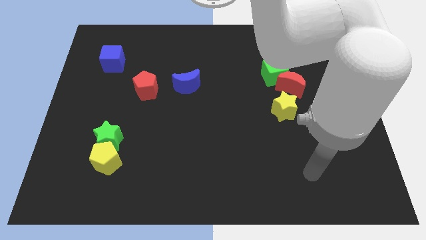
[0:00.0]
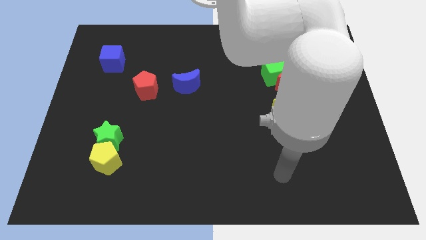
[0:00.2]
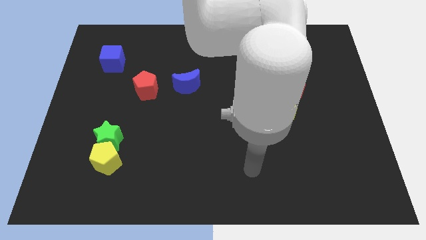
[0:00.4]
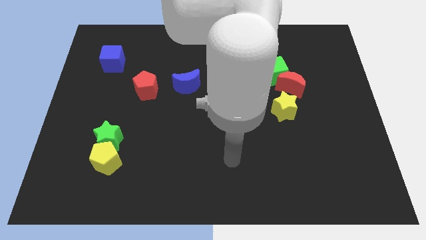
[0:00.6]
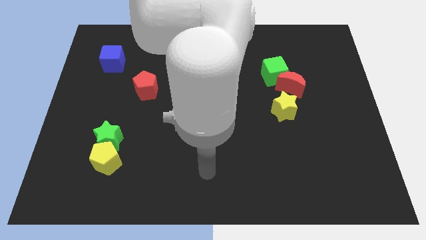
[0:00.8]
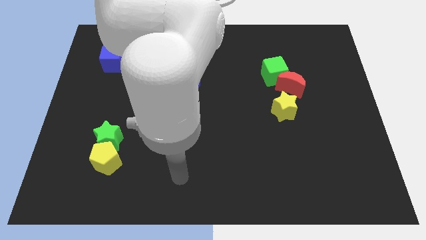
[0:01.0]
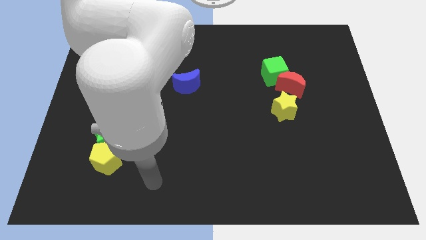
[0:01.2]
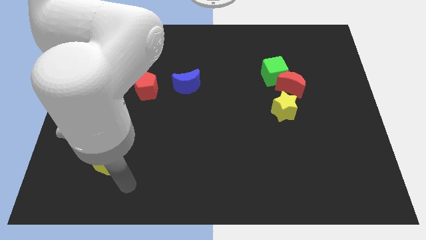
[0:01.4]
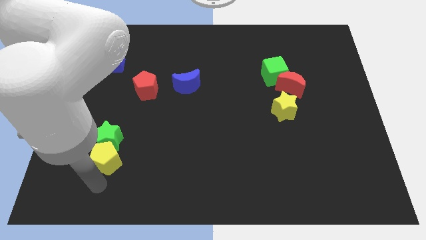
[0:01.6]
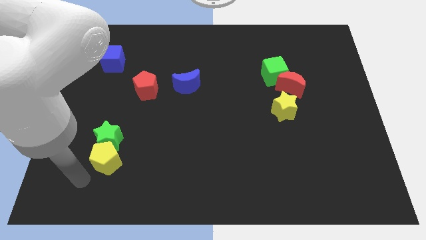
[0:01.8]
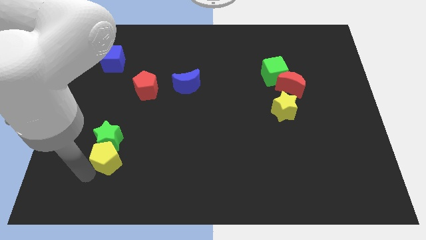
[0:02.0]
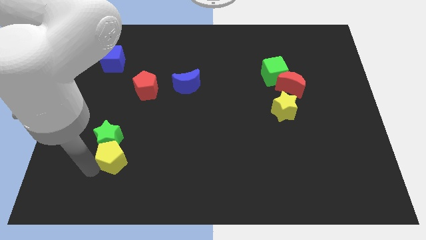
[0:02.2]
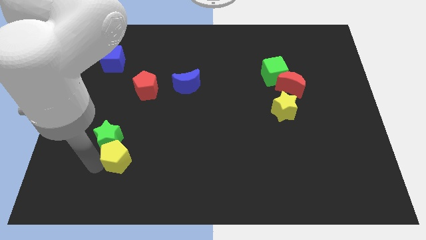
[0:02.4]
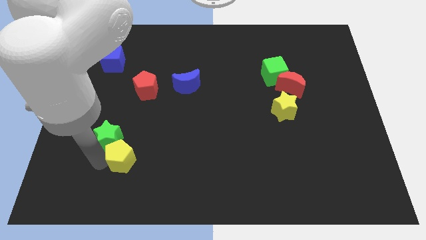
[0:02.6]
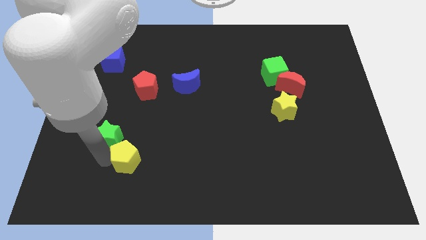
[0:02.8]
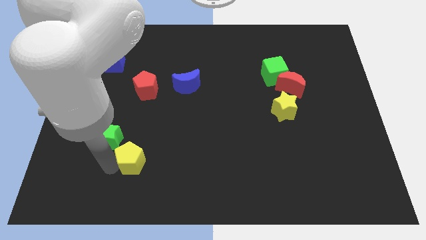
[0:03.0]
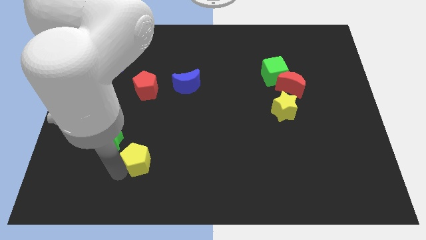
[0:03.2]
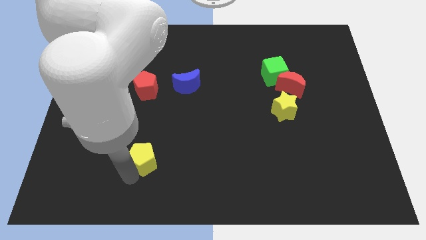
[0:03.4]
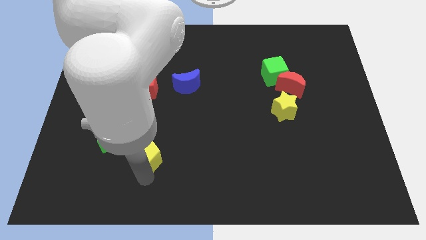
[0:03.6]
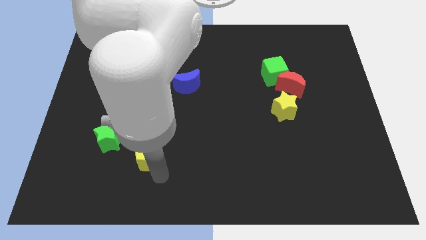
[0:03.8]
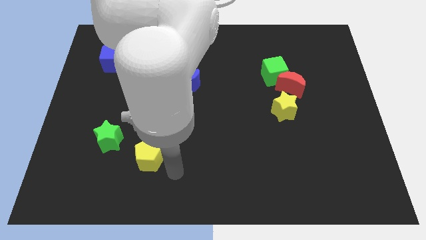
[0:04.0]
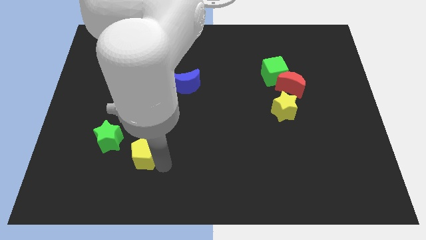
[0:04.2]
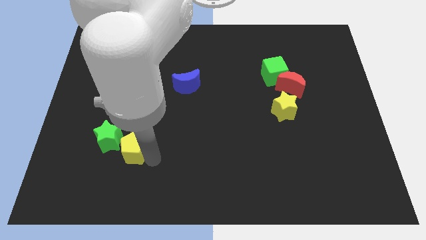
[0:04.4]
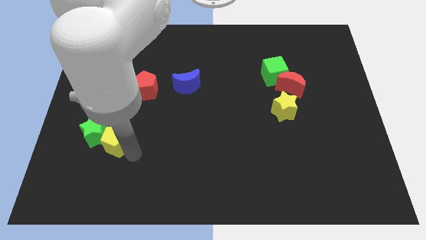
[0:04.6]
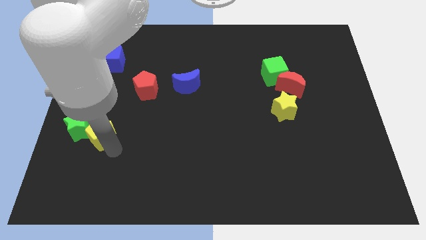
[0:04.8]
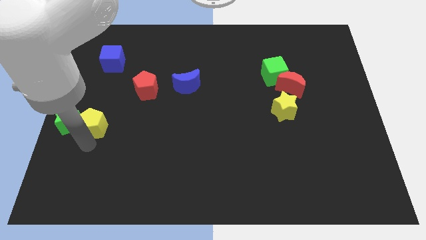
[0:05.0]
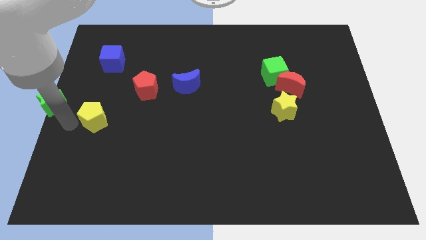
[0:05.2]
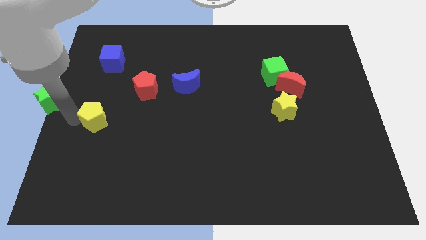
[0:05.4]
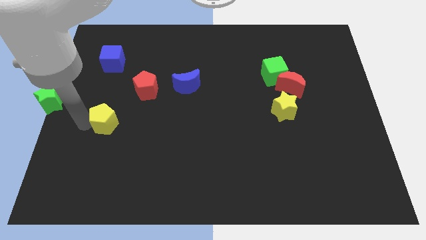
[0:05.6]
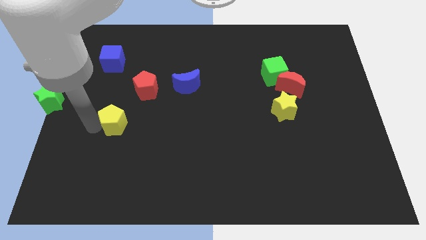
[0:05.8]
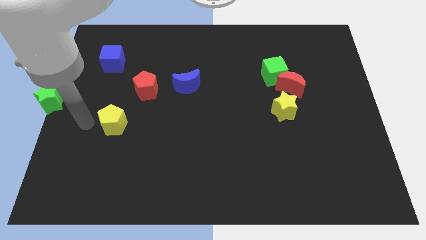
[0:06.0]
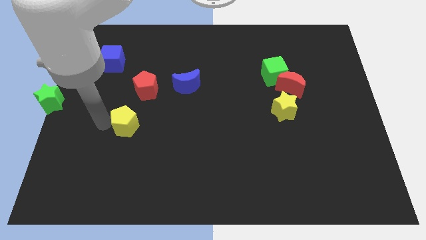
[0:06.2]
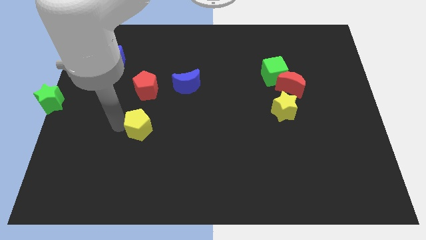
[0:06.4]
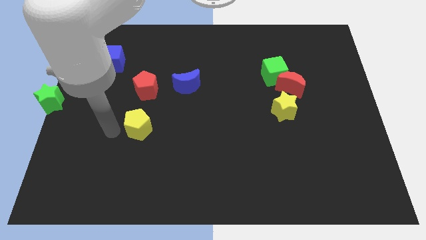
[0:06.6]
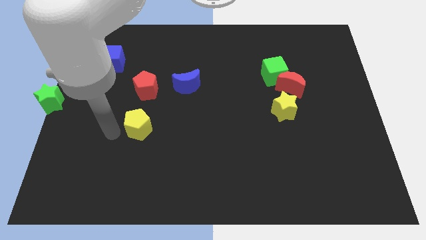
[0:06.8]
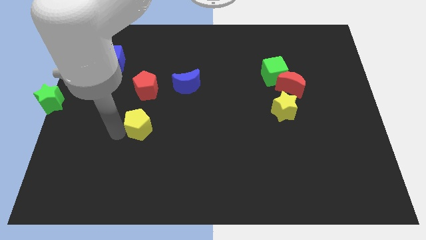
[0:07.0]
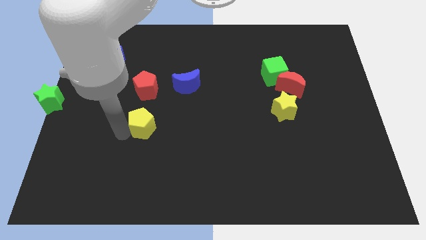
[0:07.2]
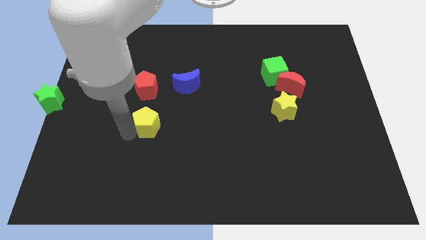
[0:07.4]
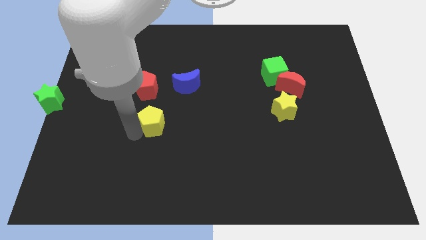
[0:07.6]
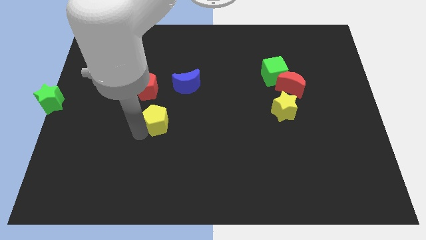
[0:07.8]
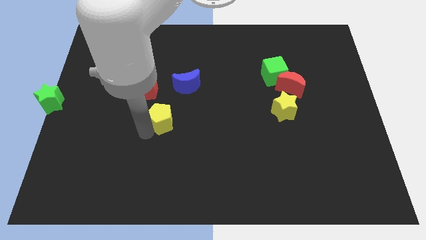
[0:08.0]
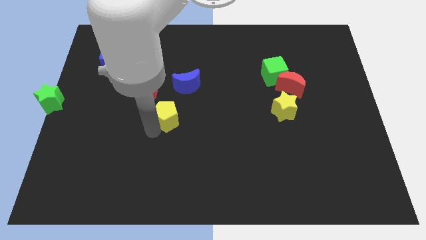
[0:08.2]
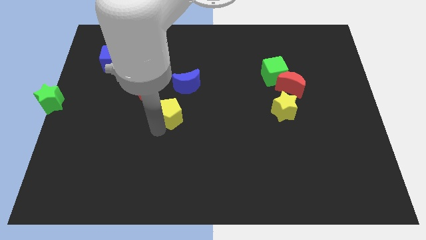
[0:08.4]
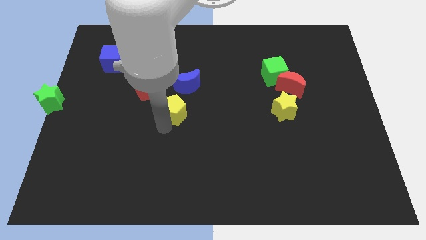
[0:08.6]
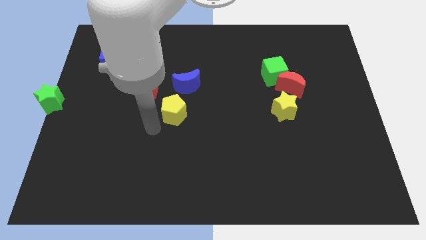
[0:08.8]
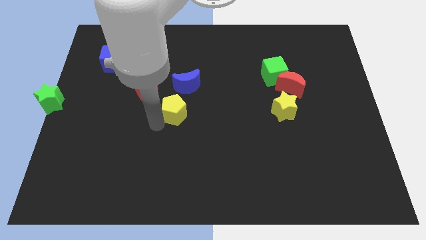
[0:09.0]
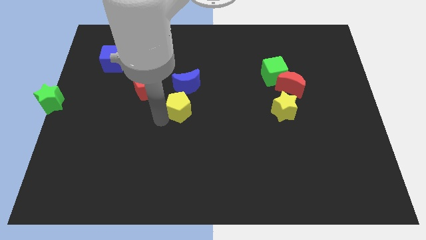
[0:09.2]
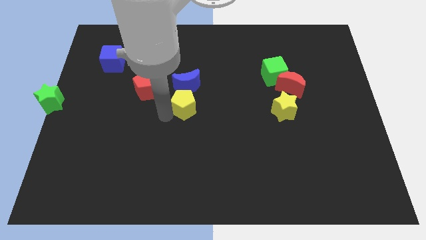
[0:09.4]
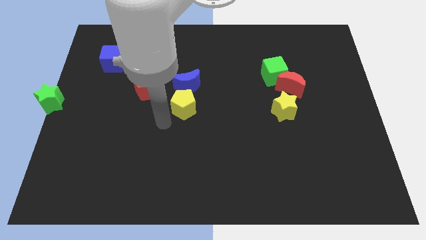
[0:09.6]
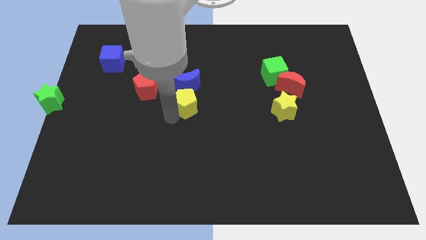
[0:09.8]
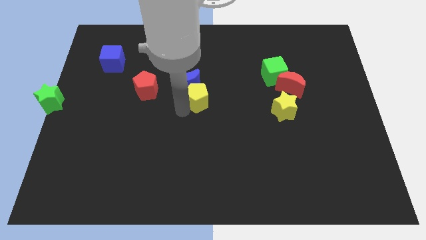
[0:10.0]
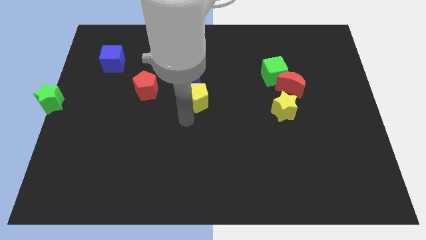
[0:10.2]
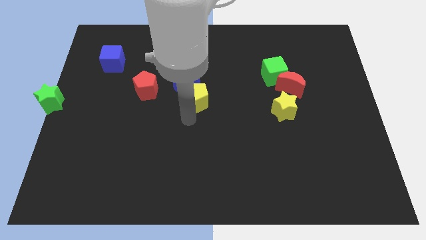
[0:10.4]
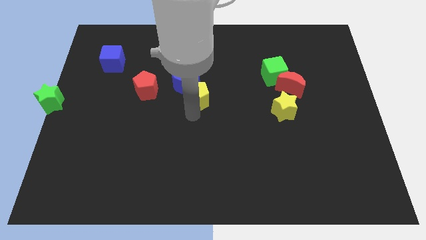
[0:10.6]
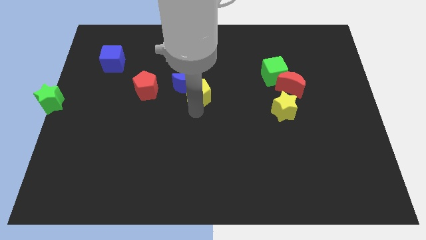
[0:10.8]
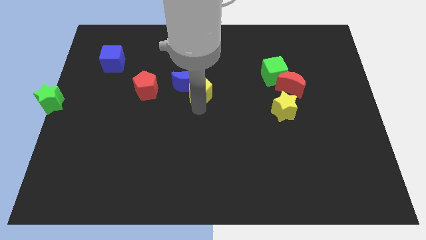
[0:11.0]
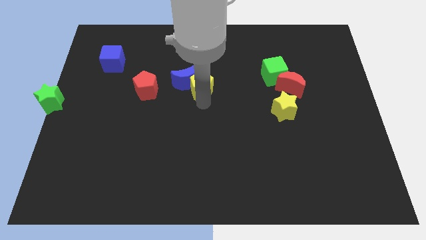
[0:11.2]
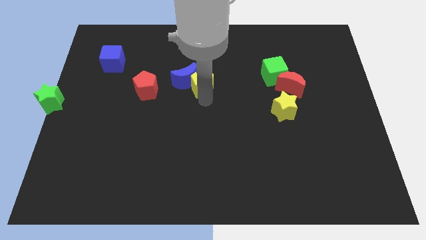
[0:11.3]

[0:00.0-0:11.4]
slide the yellow pentagon diagonally up and to the right of the blue moon

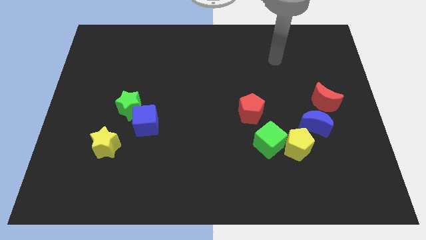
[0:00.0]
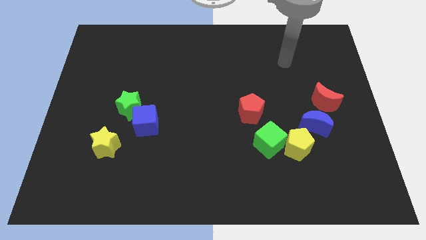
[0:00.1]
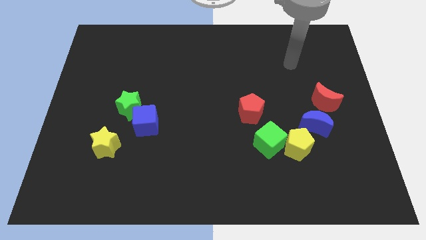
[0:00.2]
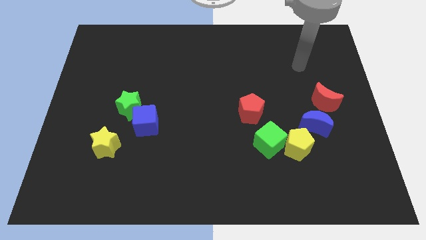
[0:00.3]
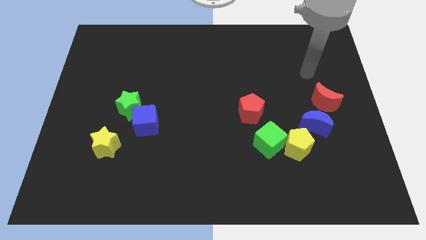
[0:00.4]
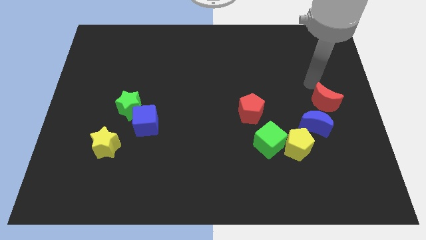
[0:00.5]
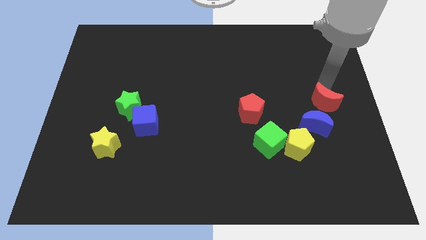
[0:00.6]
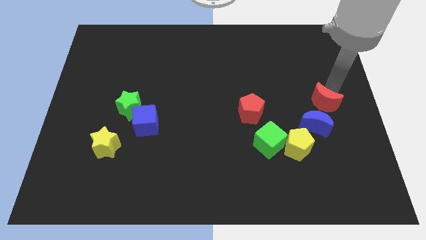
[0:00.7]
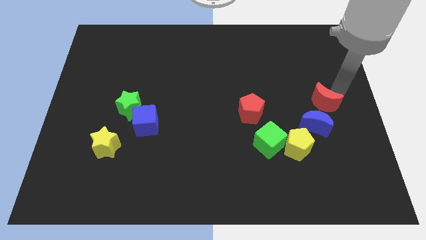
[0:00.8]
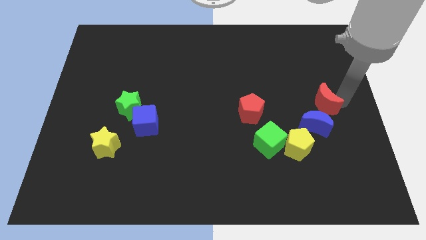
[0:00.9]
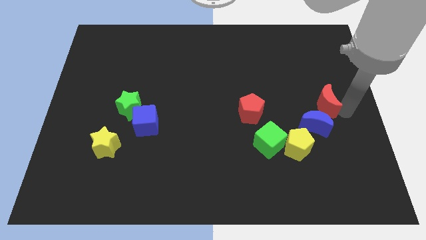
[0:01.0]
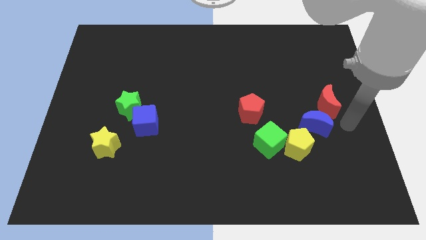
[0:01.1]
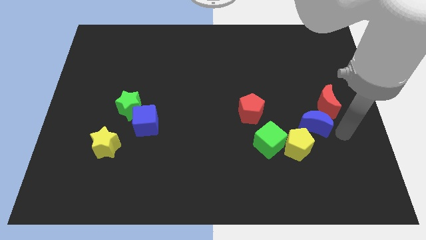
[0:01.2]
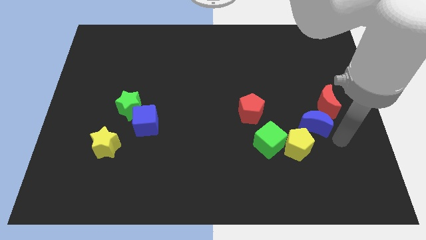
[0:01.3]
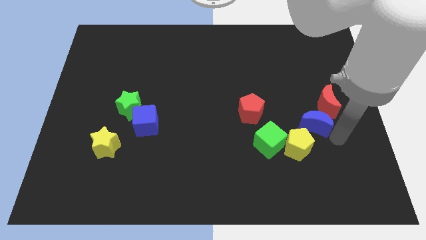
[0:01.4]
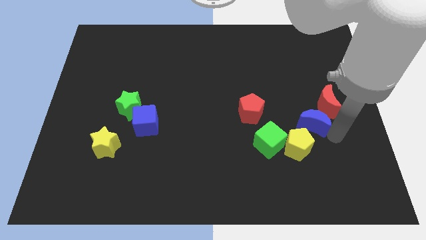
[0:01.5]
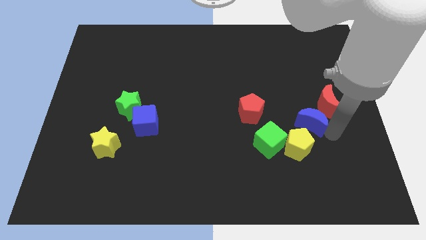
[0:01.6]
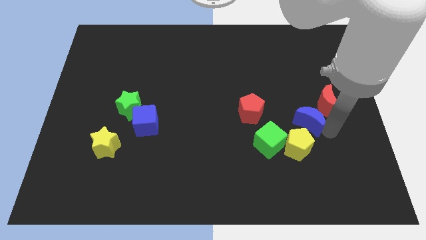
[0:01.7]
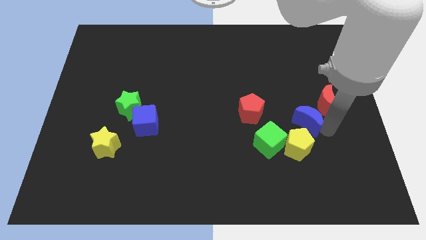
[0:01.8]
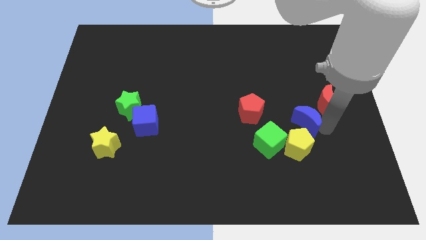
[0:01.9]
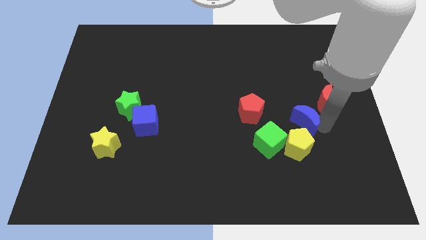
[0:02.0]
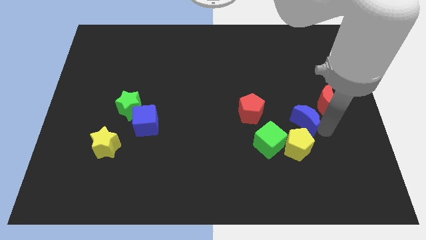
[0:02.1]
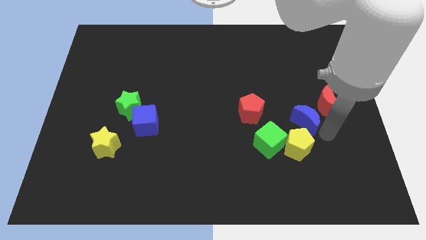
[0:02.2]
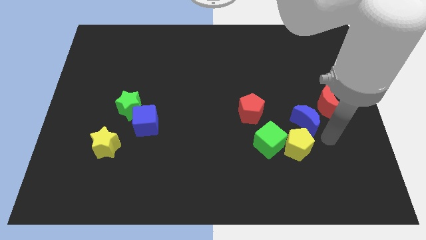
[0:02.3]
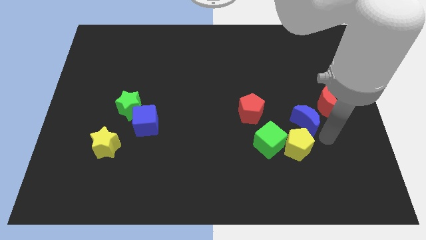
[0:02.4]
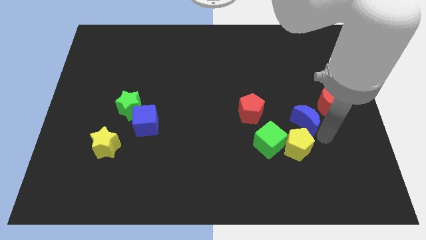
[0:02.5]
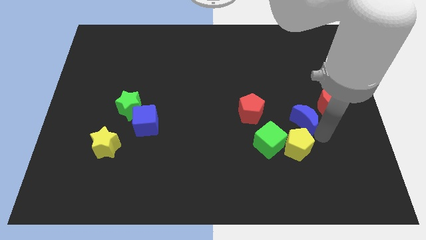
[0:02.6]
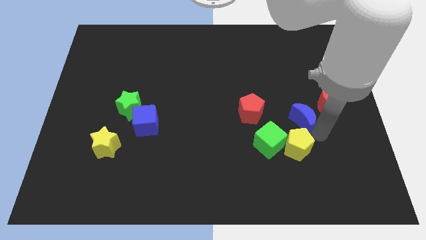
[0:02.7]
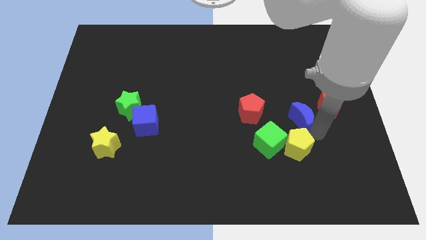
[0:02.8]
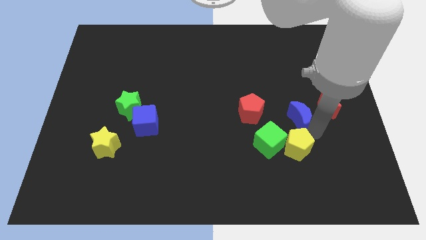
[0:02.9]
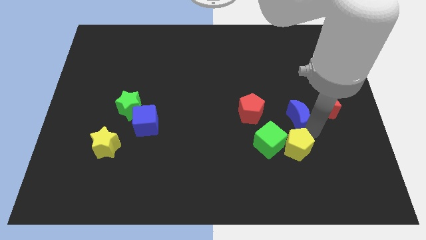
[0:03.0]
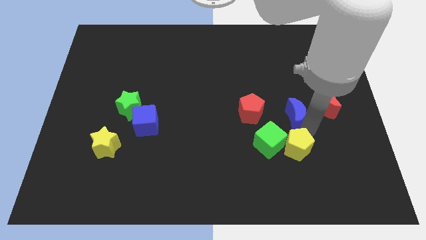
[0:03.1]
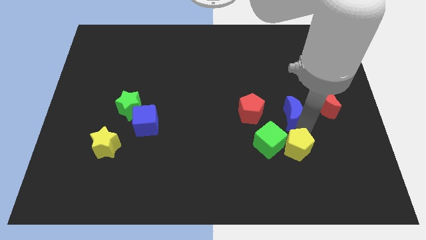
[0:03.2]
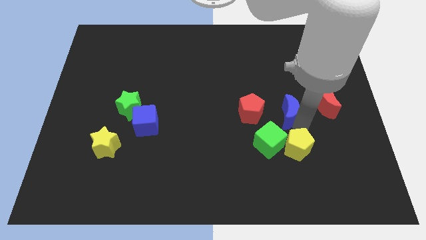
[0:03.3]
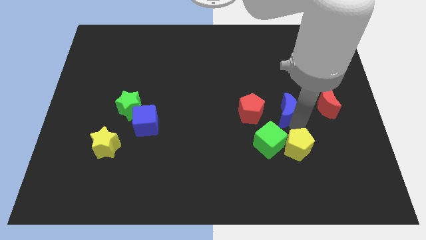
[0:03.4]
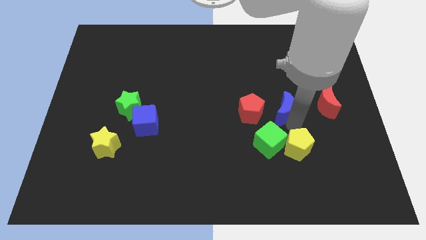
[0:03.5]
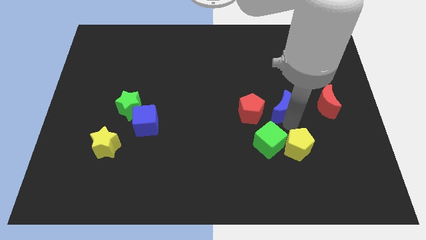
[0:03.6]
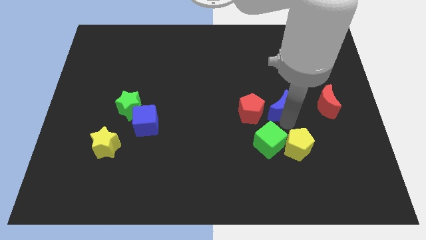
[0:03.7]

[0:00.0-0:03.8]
put the blue moon diagonally up and to the right of the red pentagon
